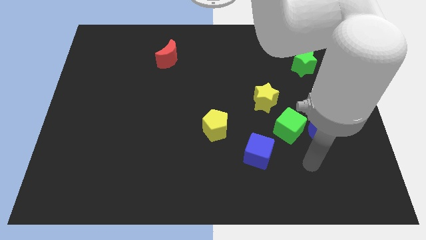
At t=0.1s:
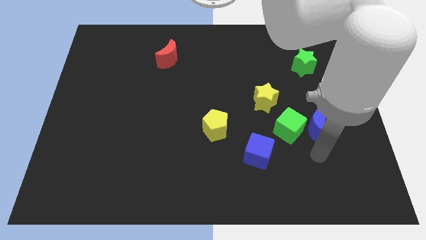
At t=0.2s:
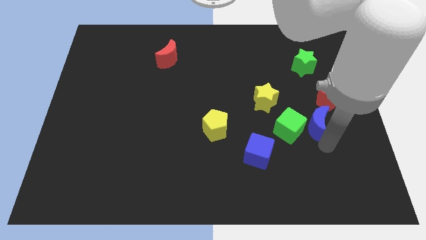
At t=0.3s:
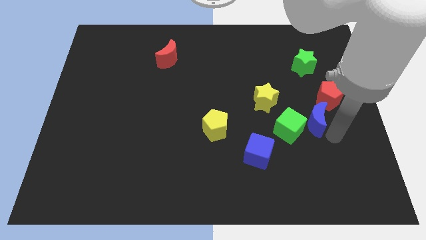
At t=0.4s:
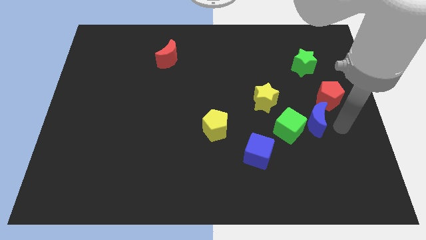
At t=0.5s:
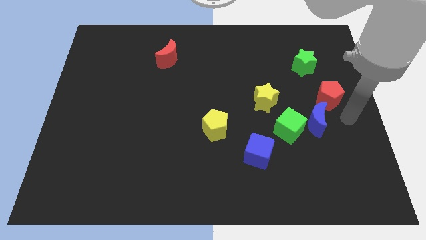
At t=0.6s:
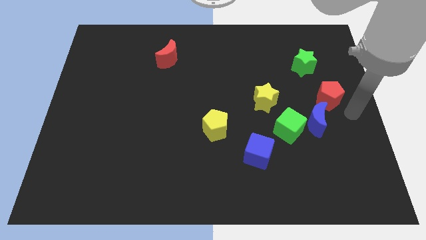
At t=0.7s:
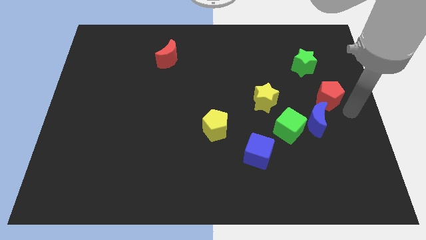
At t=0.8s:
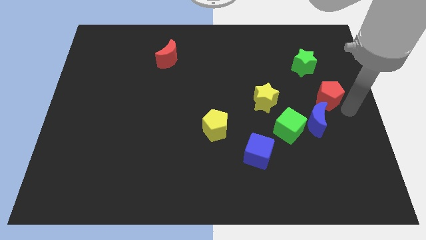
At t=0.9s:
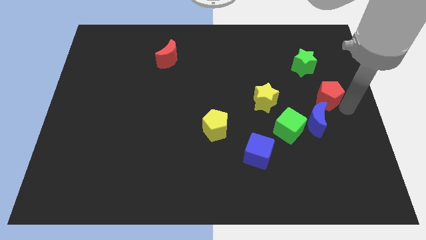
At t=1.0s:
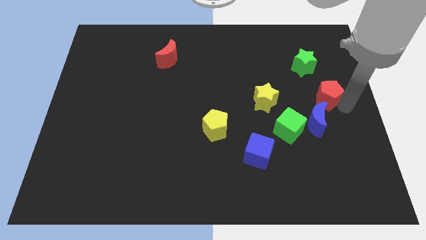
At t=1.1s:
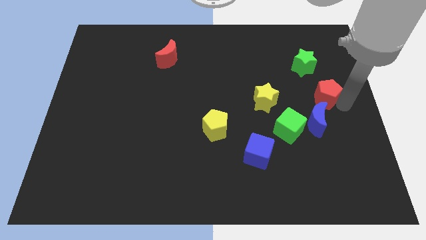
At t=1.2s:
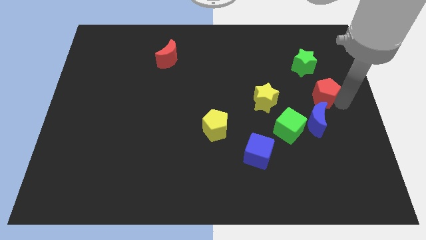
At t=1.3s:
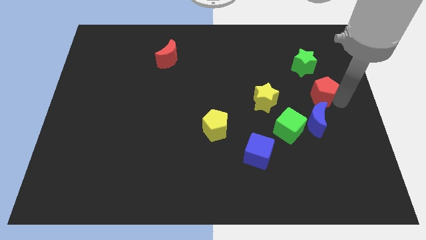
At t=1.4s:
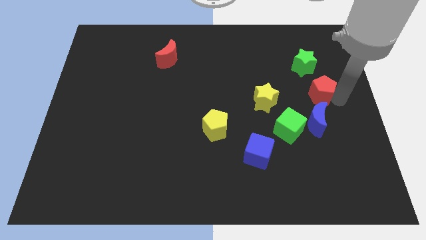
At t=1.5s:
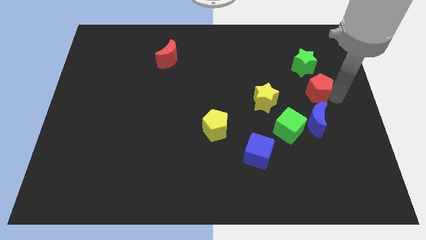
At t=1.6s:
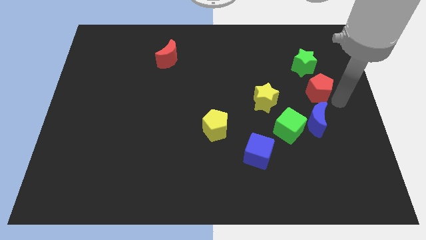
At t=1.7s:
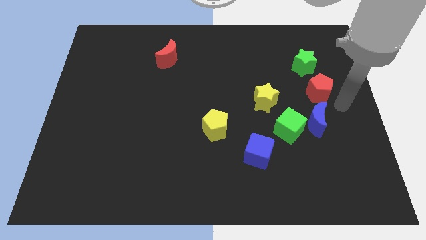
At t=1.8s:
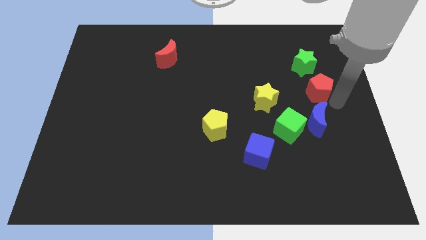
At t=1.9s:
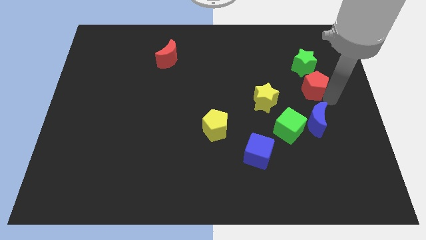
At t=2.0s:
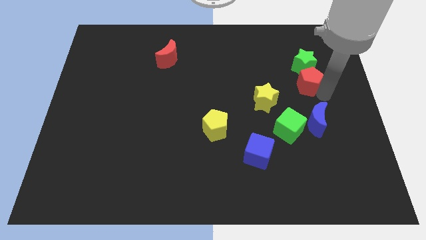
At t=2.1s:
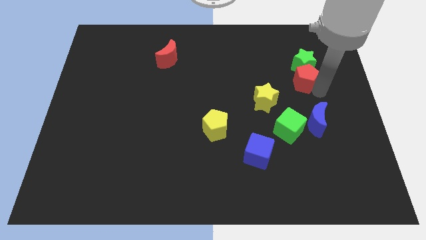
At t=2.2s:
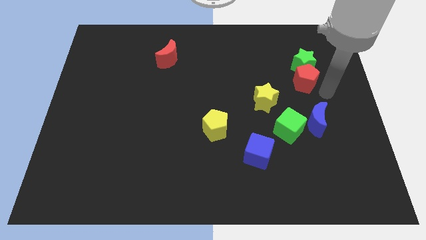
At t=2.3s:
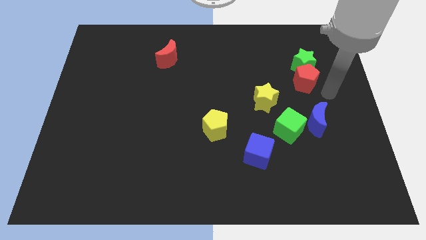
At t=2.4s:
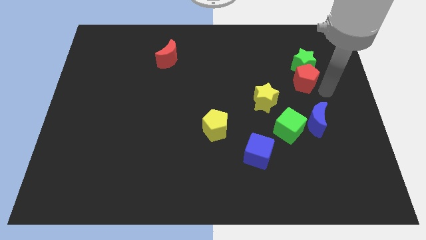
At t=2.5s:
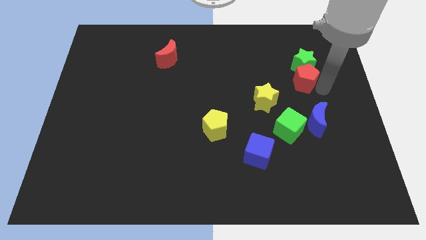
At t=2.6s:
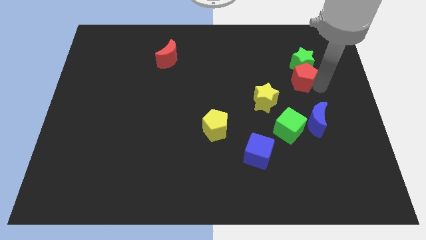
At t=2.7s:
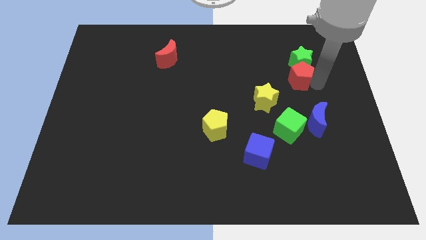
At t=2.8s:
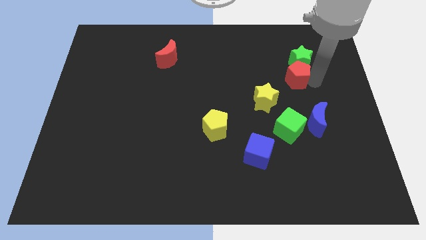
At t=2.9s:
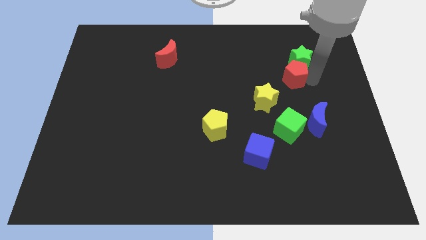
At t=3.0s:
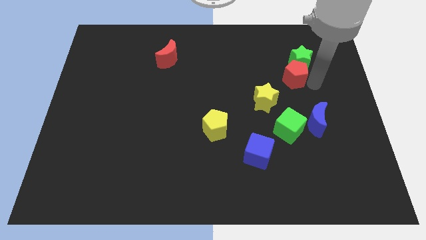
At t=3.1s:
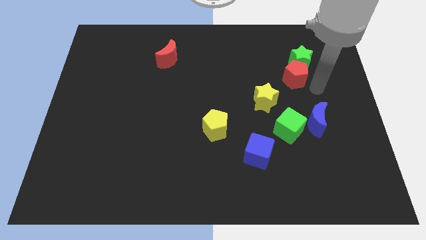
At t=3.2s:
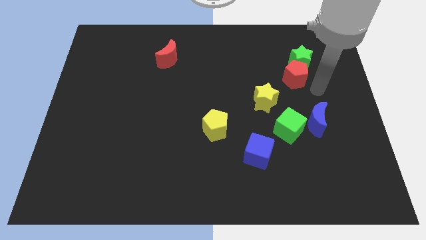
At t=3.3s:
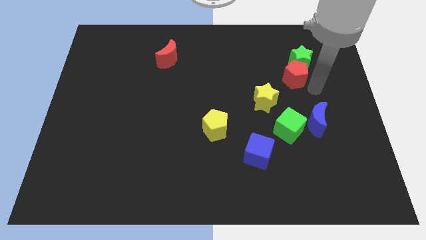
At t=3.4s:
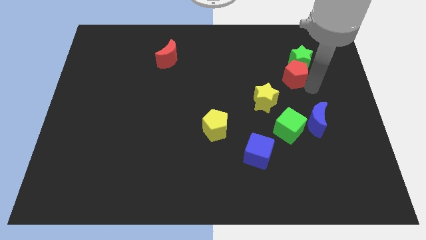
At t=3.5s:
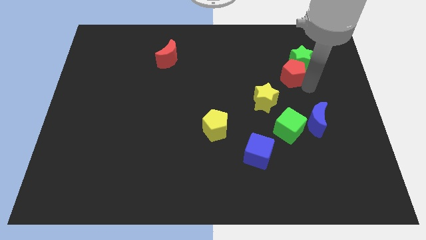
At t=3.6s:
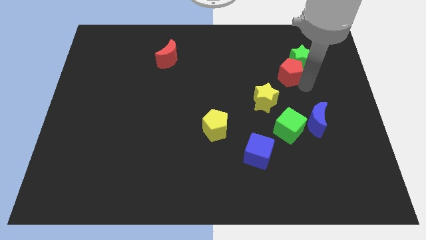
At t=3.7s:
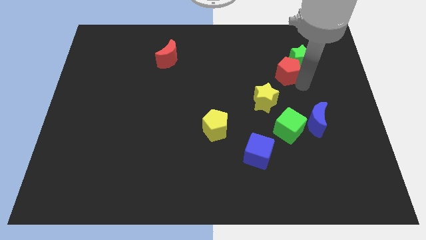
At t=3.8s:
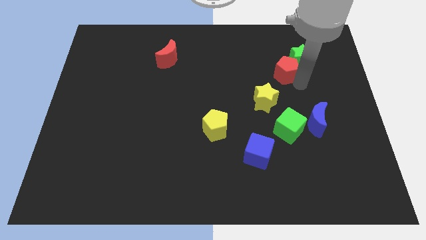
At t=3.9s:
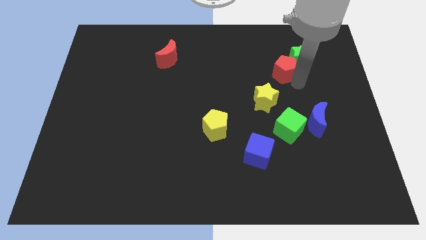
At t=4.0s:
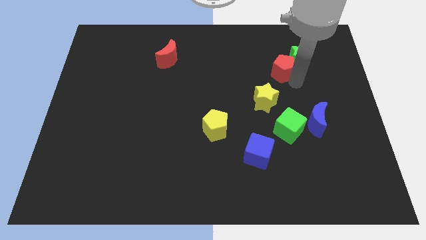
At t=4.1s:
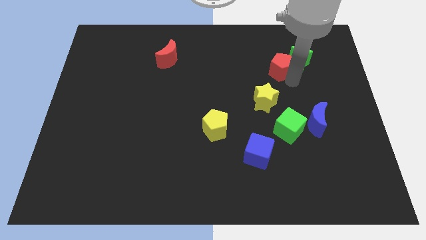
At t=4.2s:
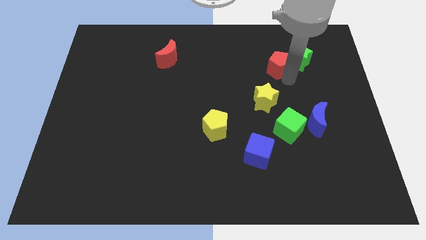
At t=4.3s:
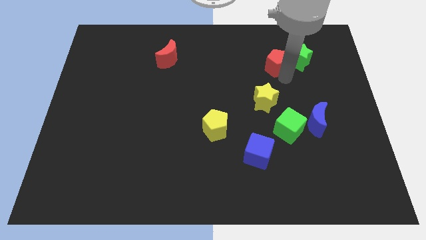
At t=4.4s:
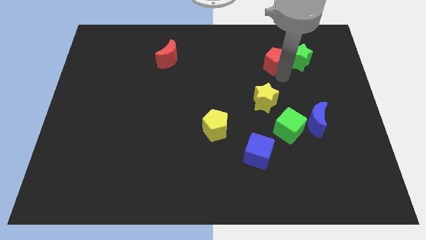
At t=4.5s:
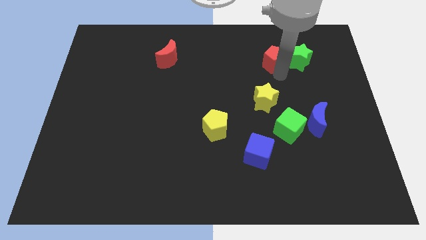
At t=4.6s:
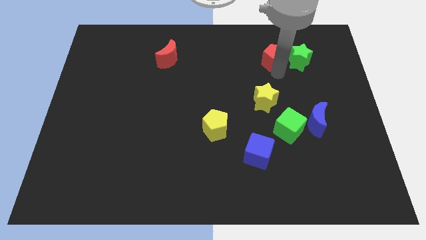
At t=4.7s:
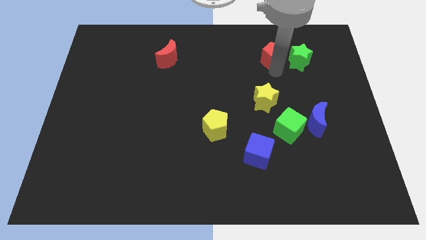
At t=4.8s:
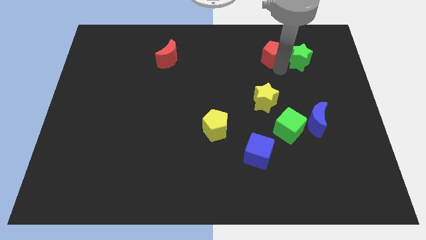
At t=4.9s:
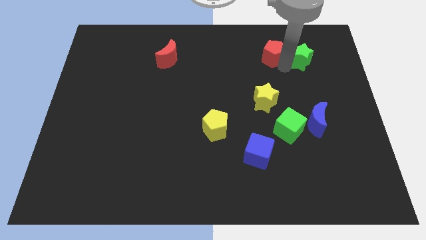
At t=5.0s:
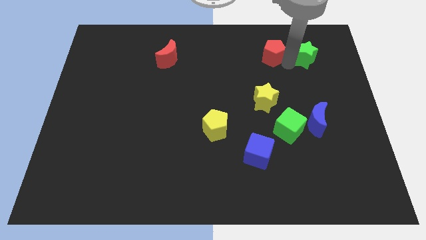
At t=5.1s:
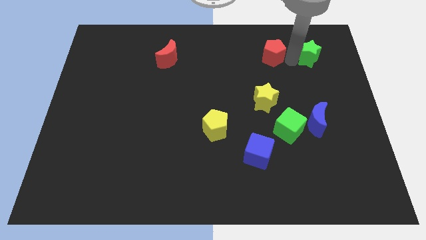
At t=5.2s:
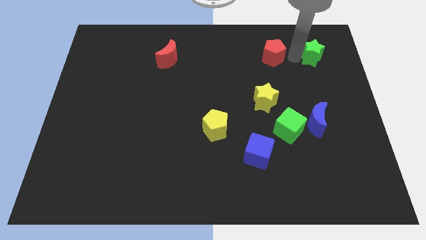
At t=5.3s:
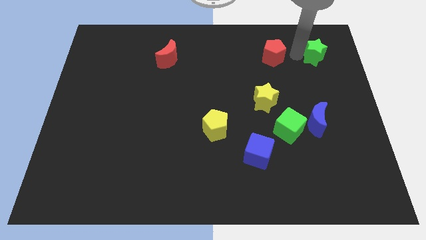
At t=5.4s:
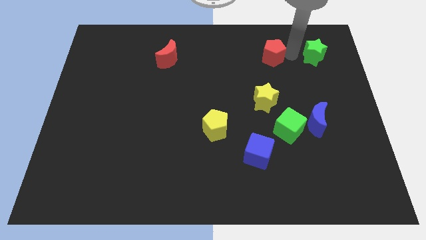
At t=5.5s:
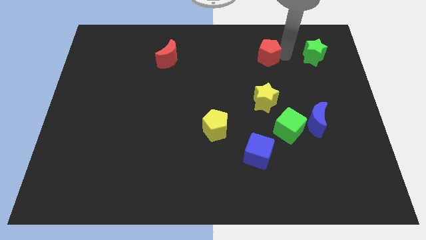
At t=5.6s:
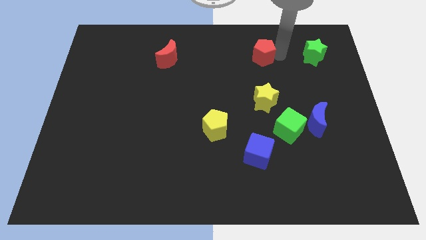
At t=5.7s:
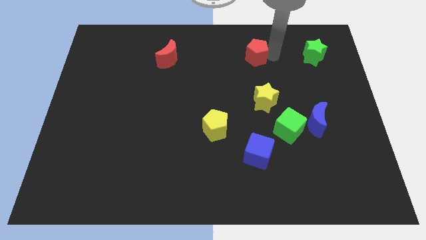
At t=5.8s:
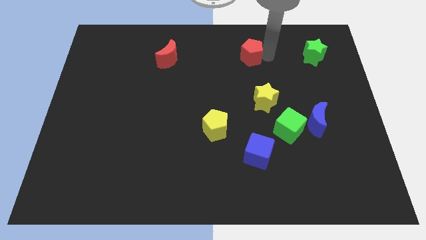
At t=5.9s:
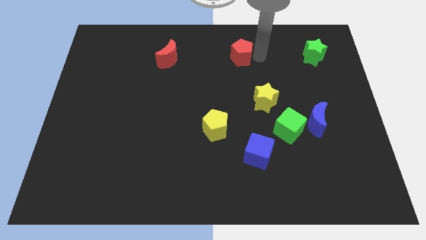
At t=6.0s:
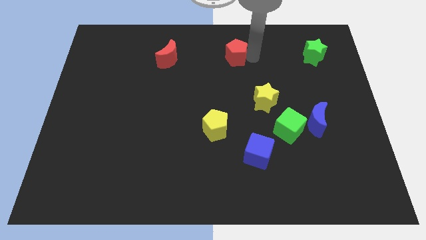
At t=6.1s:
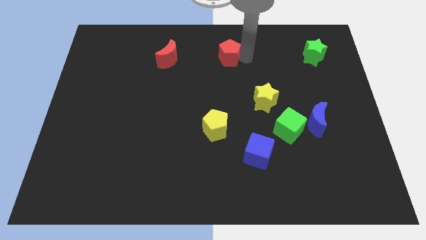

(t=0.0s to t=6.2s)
put the red pentagon to the top side
